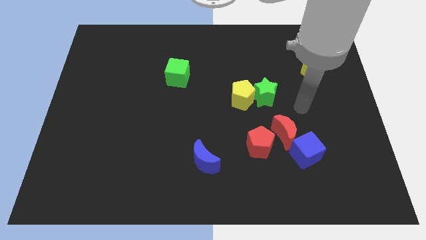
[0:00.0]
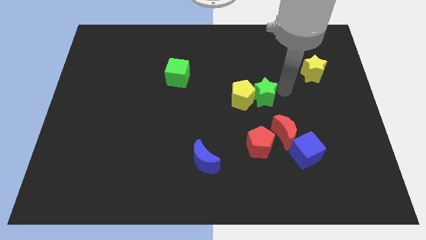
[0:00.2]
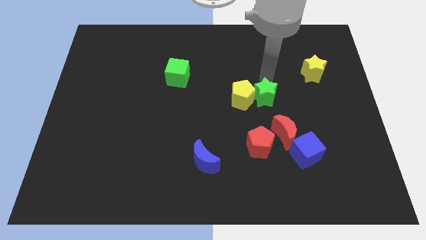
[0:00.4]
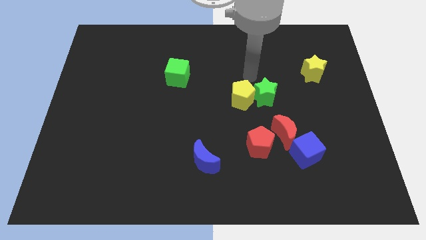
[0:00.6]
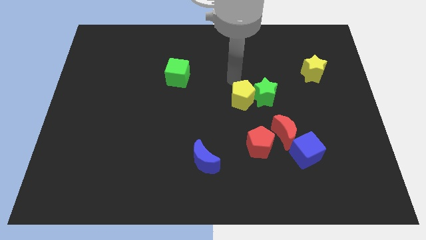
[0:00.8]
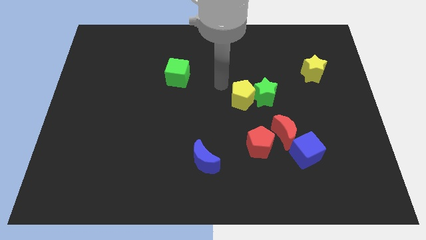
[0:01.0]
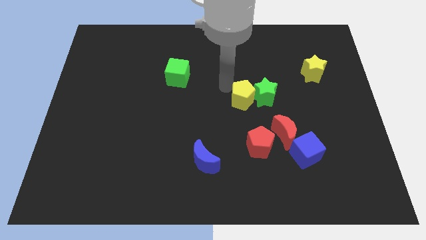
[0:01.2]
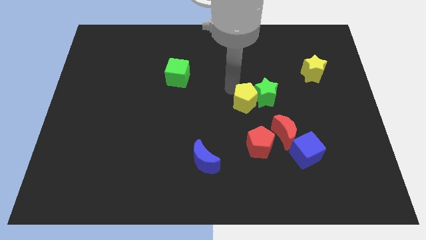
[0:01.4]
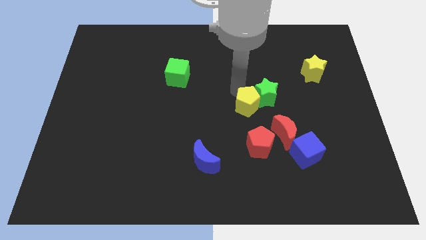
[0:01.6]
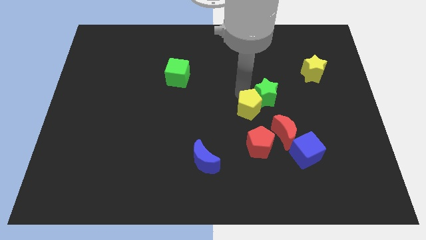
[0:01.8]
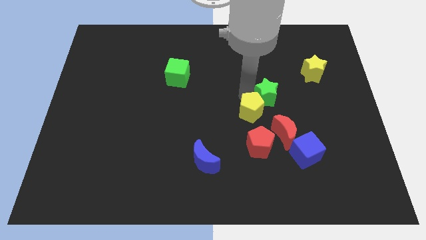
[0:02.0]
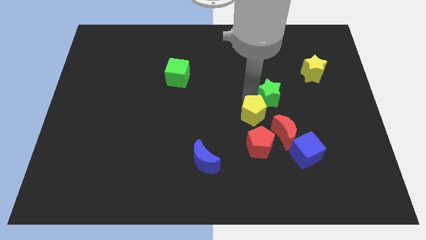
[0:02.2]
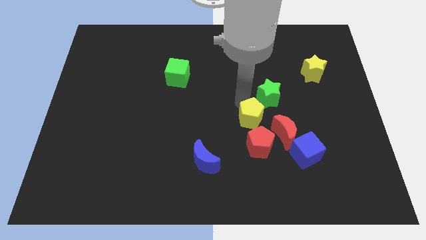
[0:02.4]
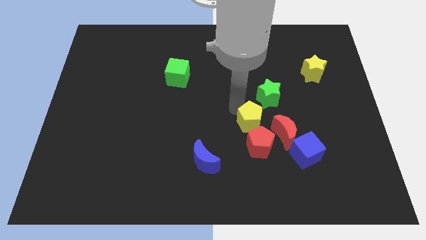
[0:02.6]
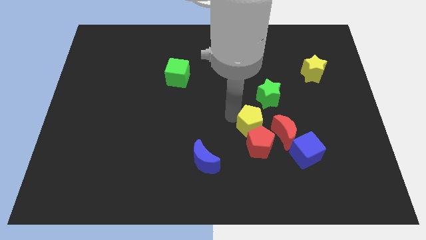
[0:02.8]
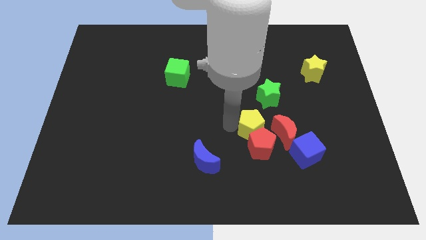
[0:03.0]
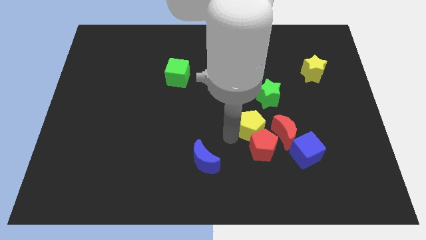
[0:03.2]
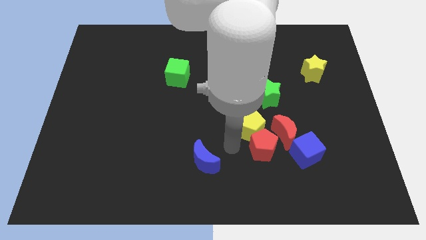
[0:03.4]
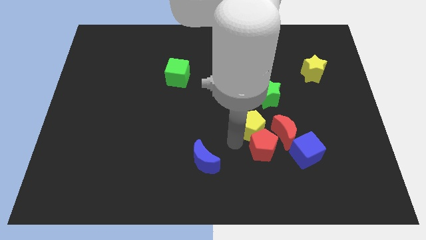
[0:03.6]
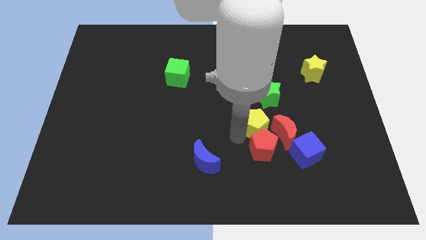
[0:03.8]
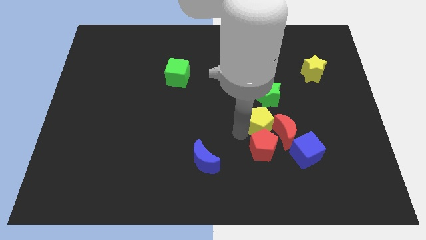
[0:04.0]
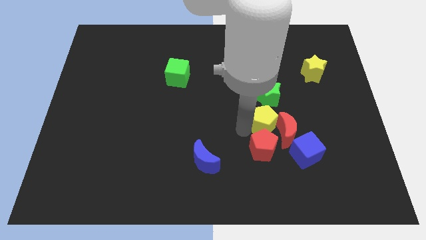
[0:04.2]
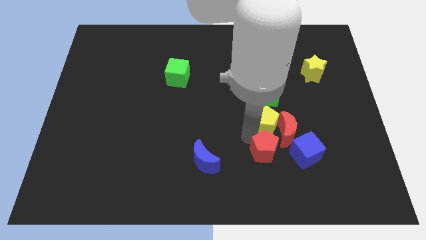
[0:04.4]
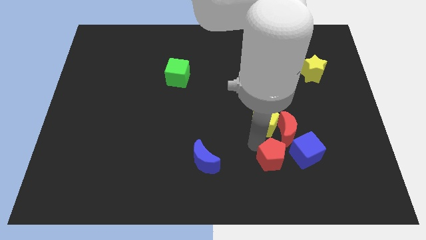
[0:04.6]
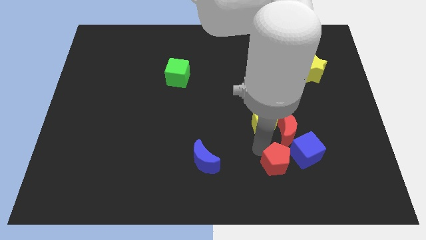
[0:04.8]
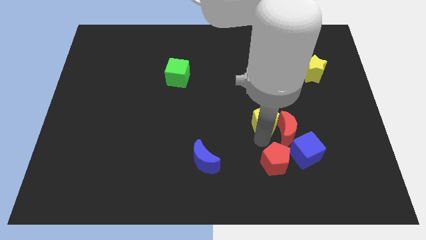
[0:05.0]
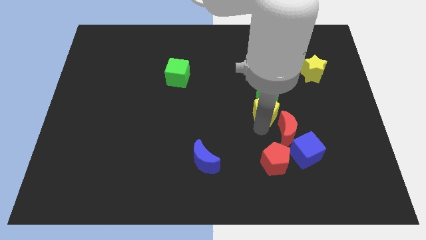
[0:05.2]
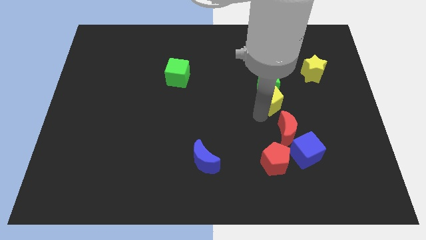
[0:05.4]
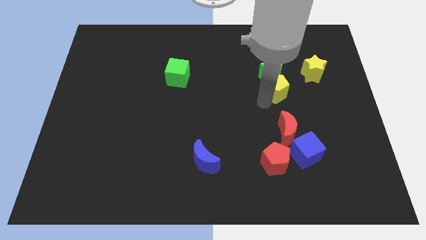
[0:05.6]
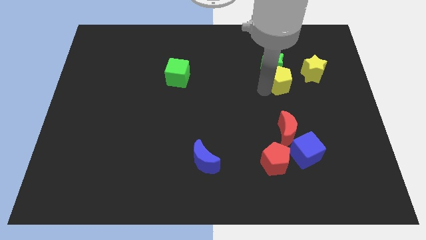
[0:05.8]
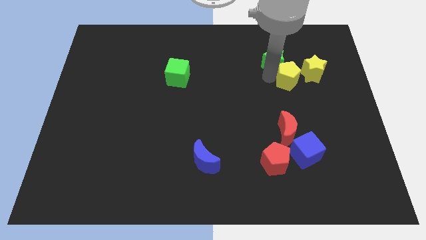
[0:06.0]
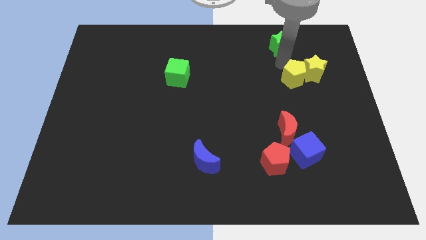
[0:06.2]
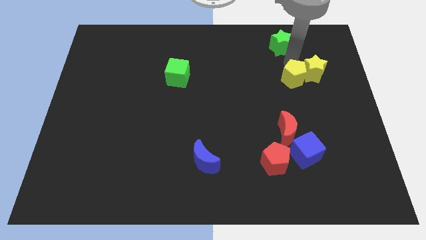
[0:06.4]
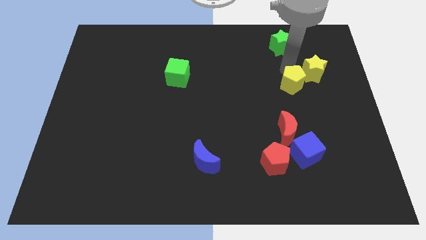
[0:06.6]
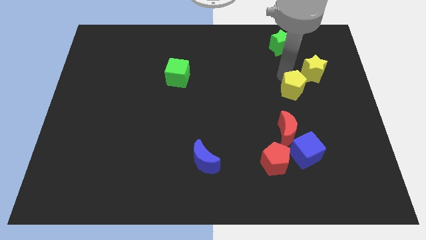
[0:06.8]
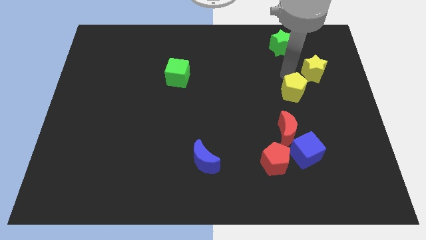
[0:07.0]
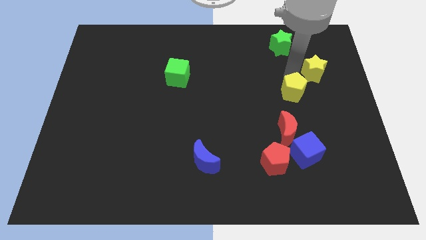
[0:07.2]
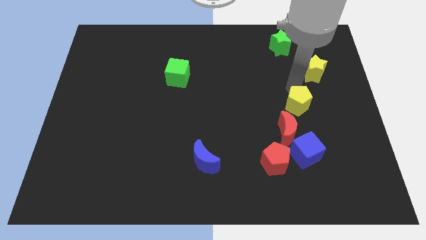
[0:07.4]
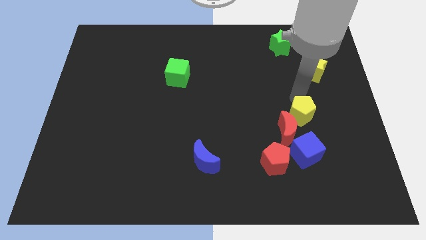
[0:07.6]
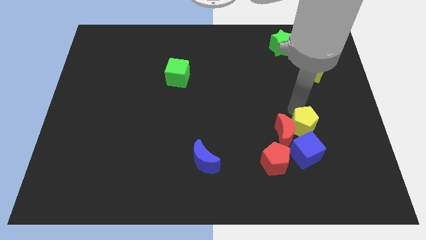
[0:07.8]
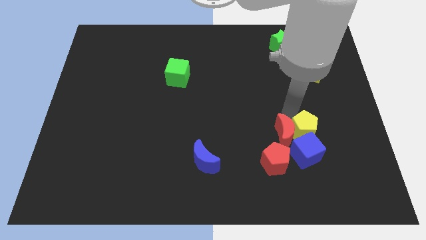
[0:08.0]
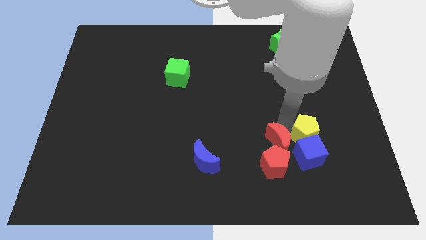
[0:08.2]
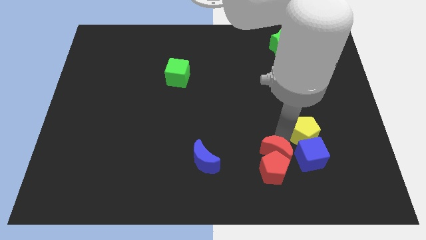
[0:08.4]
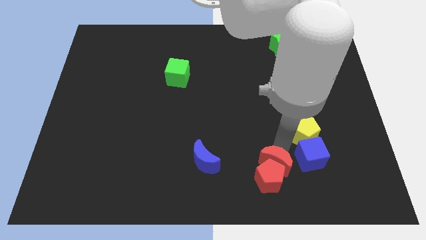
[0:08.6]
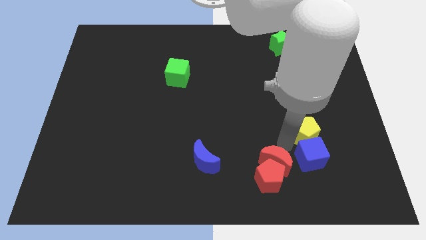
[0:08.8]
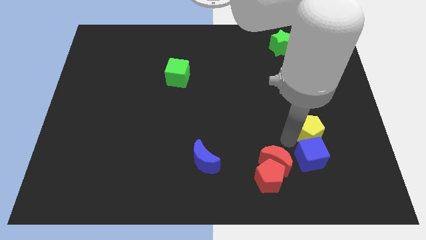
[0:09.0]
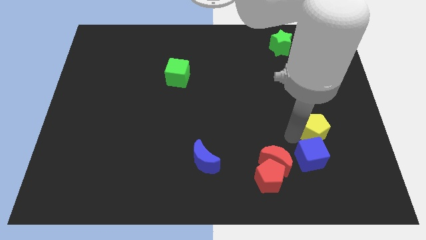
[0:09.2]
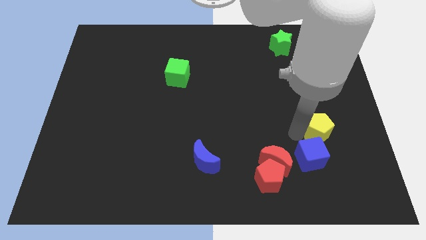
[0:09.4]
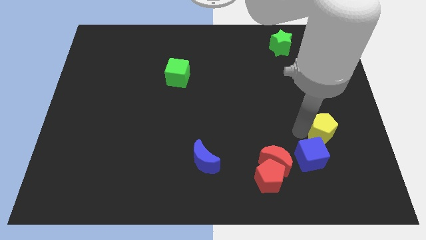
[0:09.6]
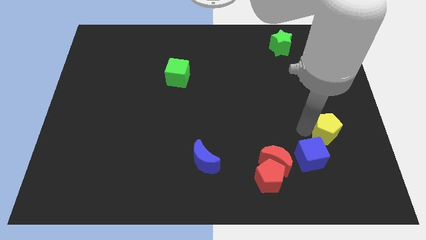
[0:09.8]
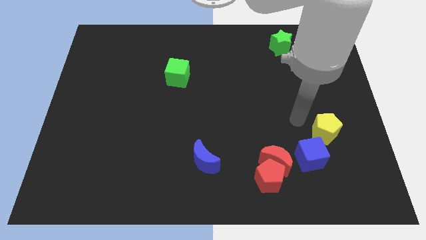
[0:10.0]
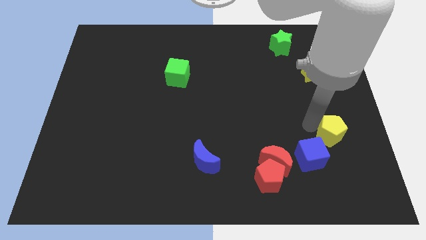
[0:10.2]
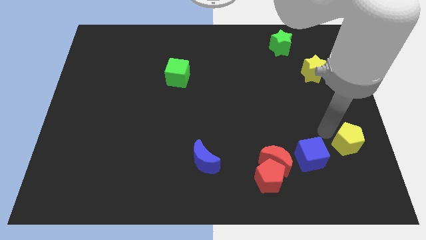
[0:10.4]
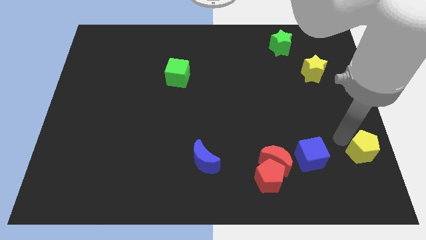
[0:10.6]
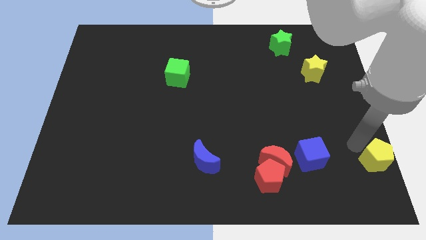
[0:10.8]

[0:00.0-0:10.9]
push the yellow pentagon to the bottom right

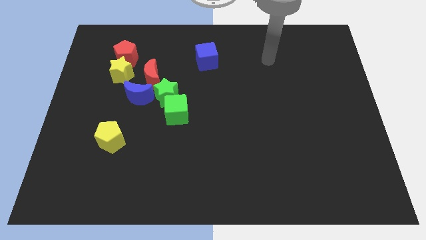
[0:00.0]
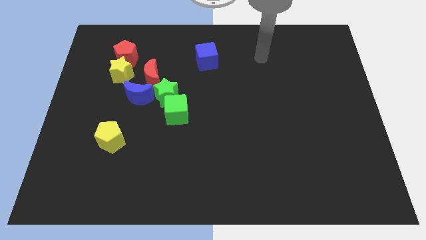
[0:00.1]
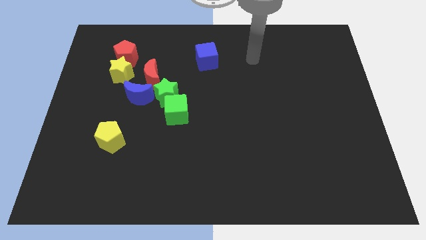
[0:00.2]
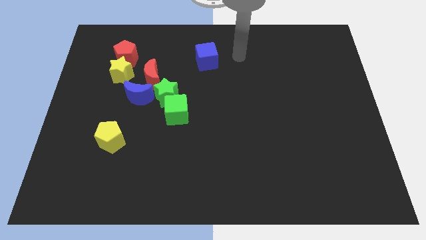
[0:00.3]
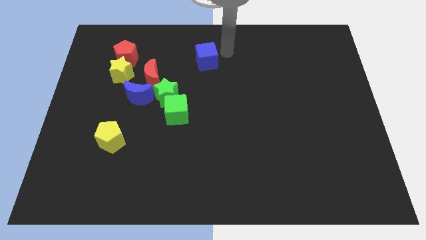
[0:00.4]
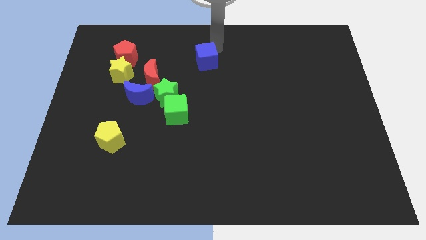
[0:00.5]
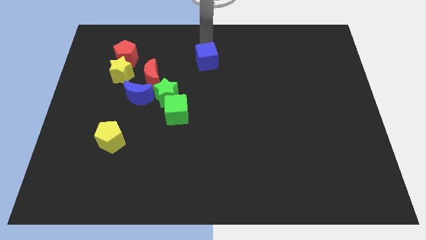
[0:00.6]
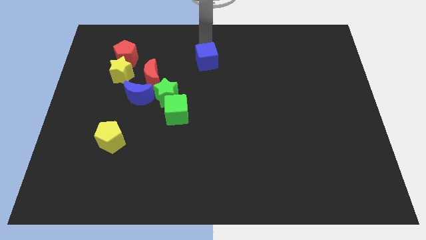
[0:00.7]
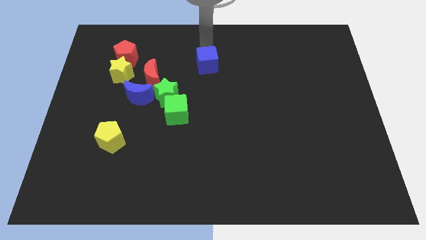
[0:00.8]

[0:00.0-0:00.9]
slide the blue cube to the middle
